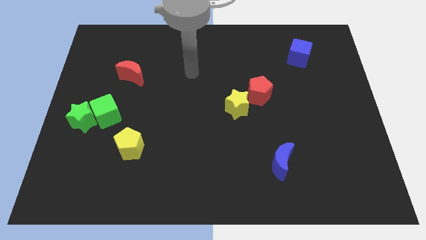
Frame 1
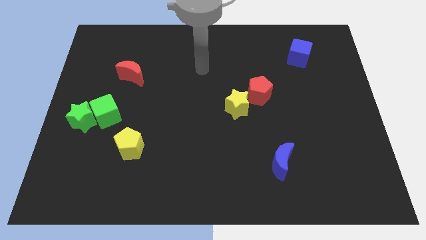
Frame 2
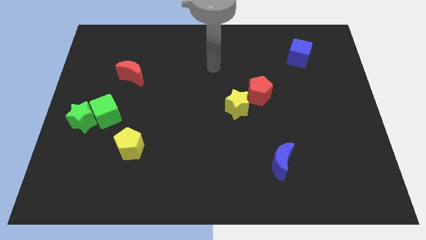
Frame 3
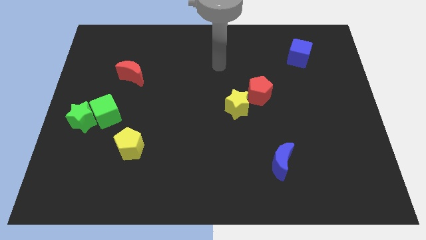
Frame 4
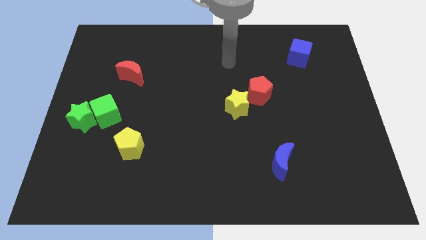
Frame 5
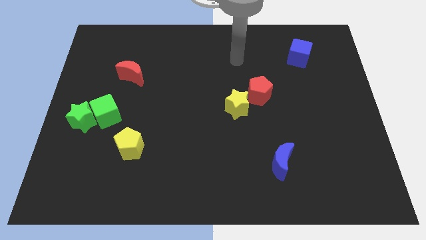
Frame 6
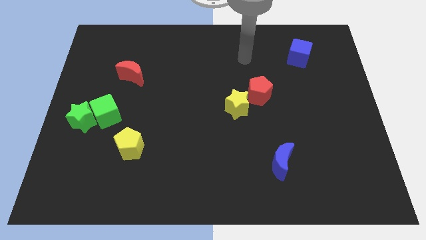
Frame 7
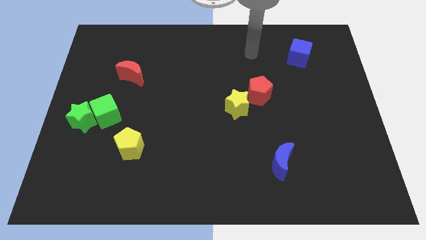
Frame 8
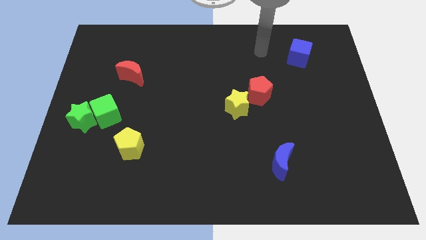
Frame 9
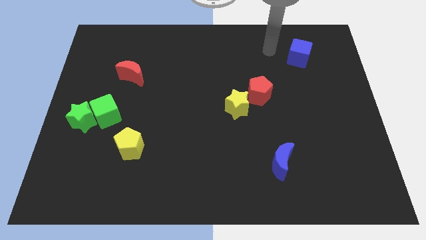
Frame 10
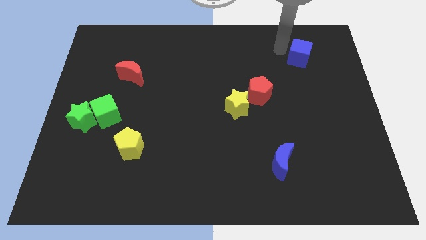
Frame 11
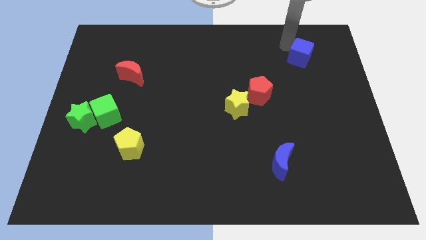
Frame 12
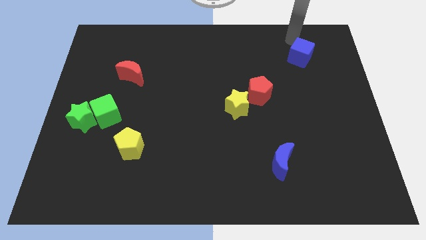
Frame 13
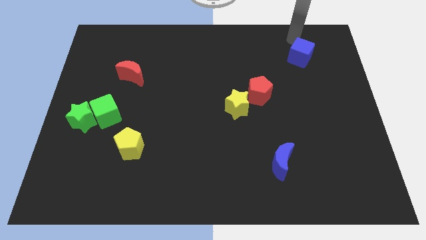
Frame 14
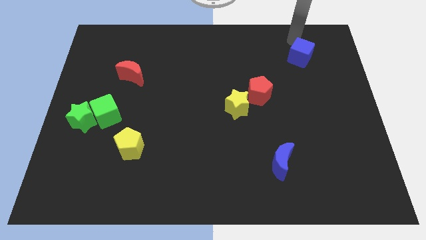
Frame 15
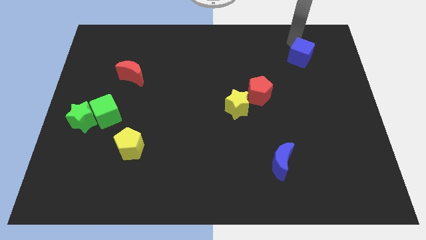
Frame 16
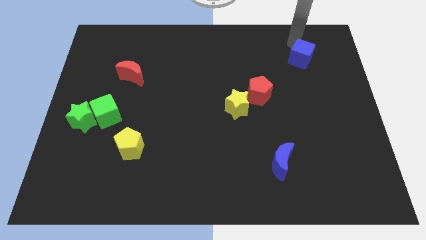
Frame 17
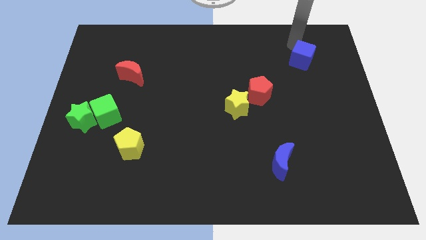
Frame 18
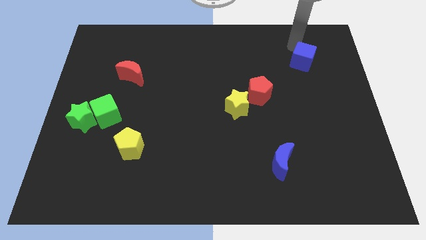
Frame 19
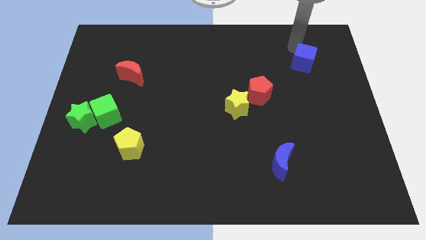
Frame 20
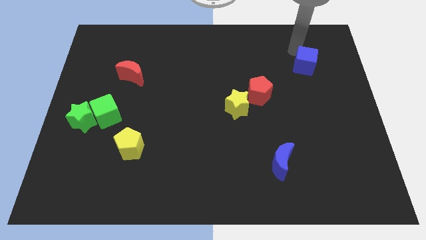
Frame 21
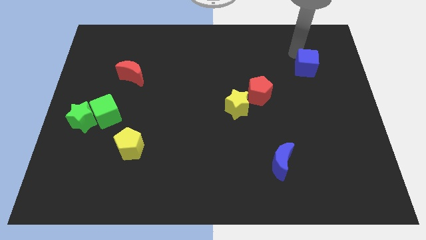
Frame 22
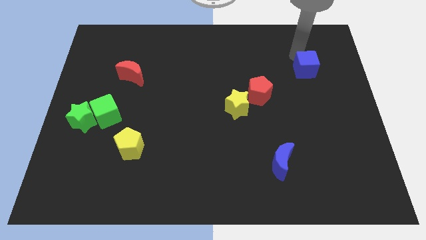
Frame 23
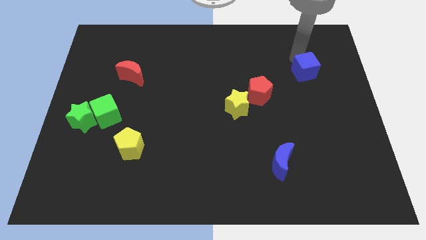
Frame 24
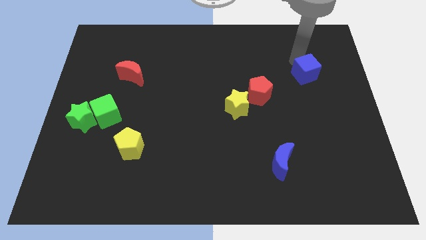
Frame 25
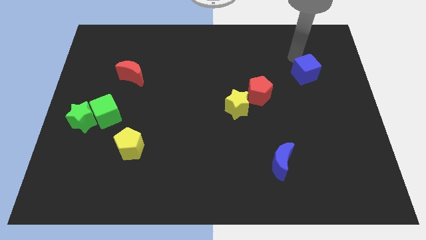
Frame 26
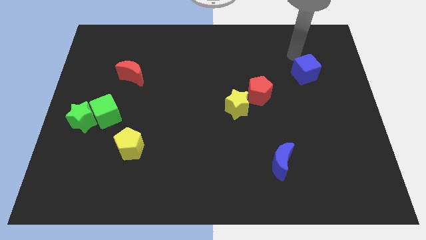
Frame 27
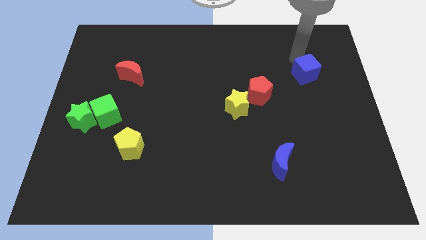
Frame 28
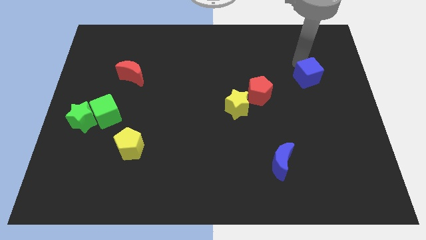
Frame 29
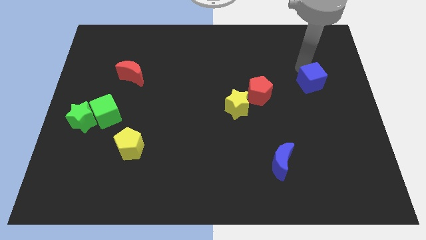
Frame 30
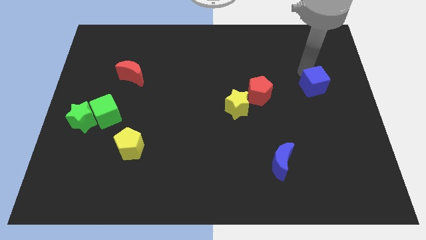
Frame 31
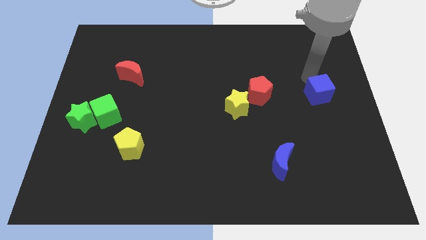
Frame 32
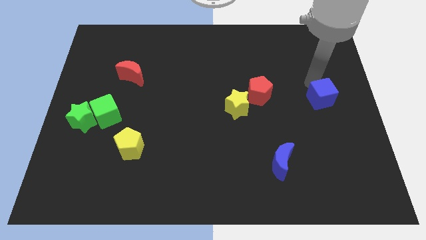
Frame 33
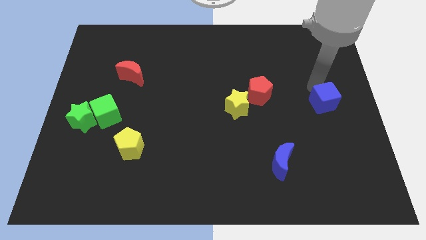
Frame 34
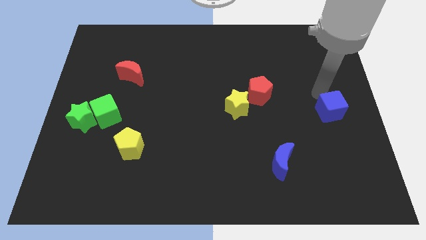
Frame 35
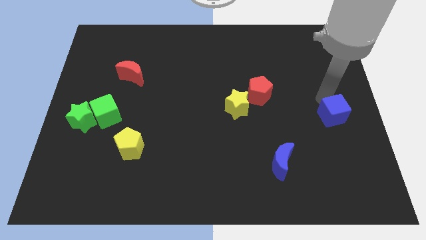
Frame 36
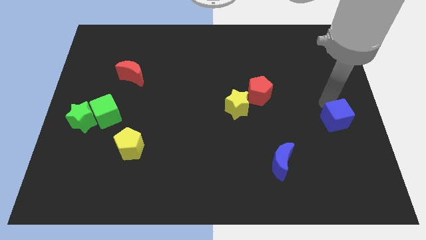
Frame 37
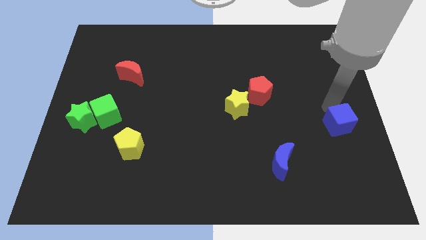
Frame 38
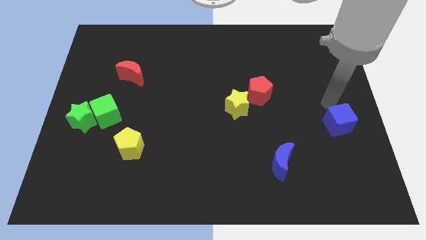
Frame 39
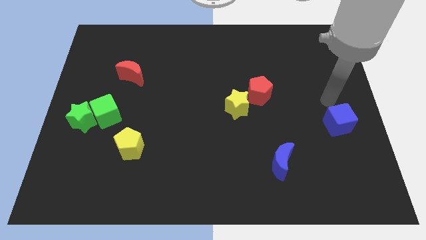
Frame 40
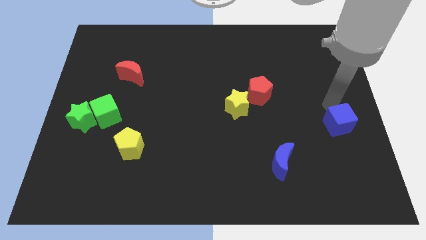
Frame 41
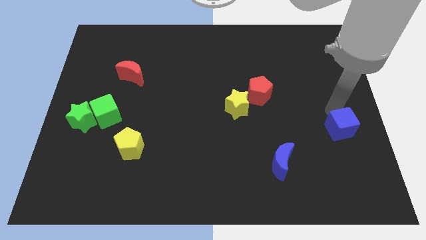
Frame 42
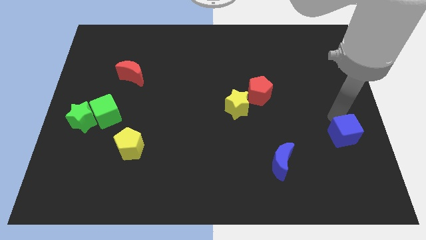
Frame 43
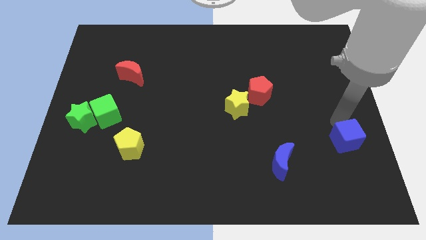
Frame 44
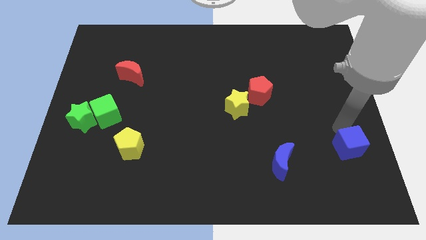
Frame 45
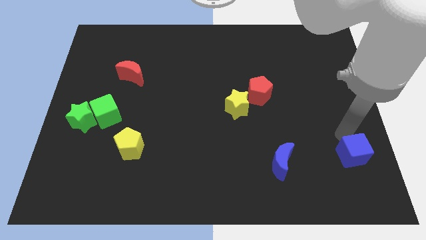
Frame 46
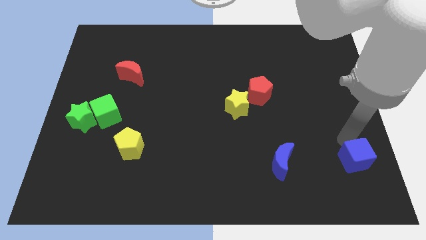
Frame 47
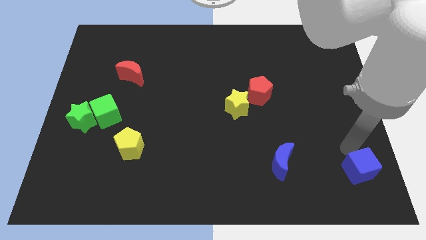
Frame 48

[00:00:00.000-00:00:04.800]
slide the blue cube to the bottom right

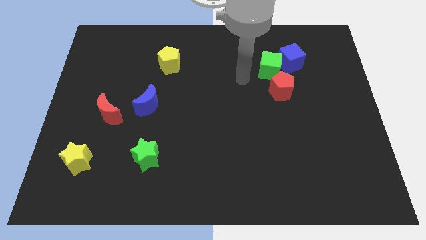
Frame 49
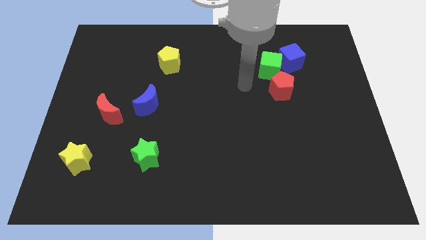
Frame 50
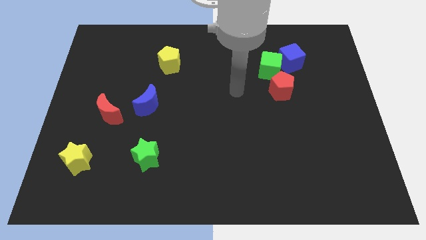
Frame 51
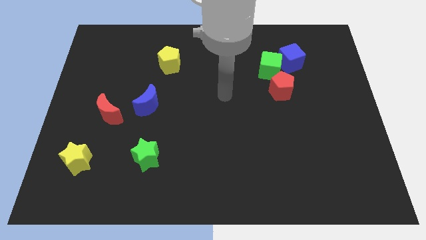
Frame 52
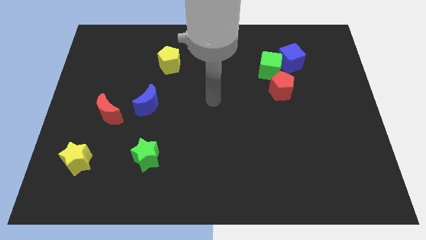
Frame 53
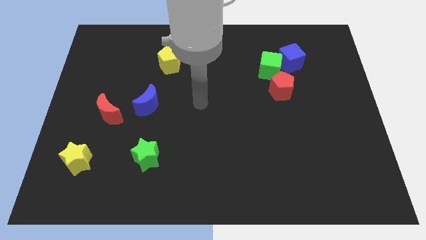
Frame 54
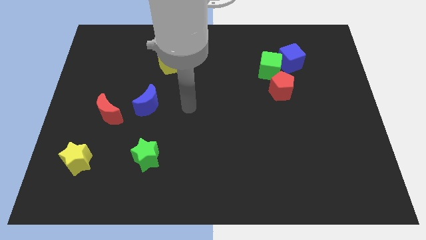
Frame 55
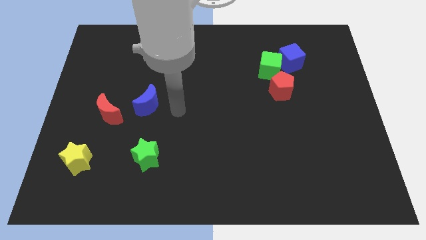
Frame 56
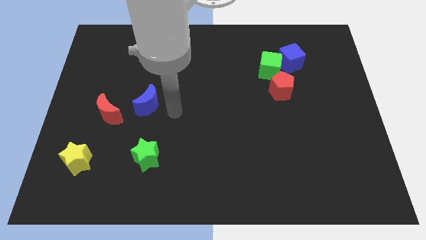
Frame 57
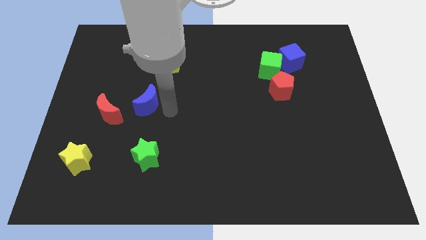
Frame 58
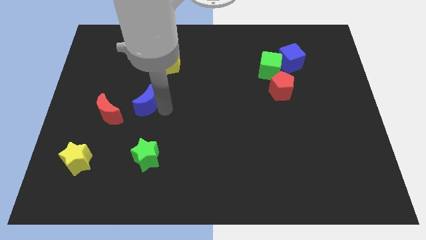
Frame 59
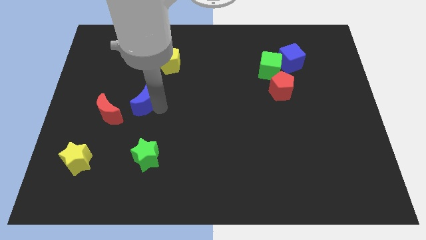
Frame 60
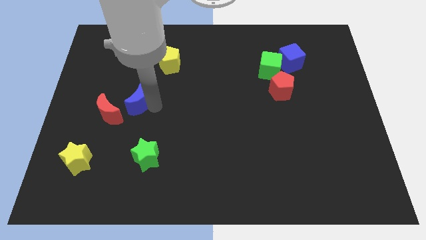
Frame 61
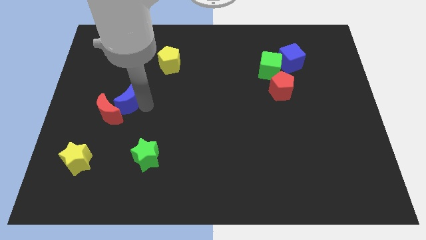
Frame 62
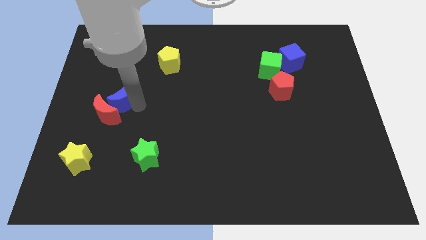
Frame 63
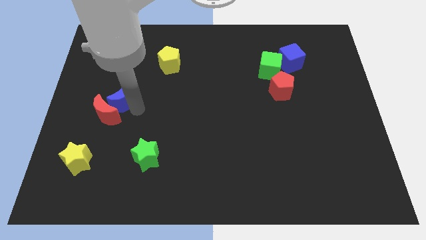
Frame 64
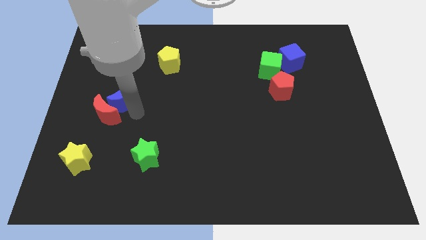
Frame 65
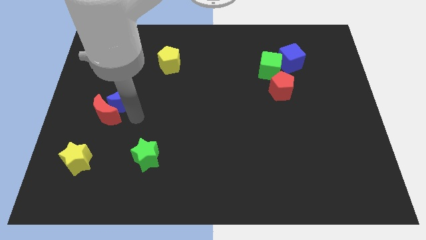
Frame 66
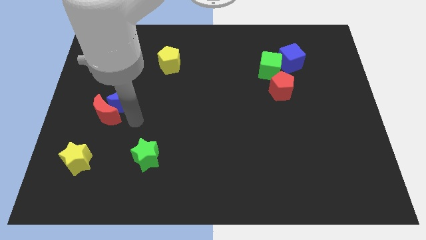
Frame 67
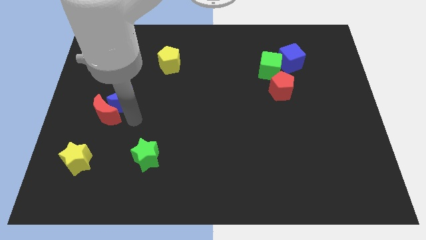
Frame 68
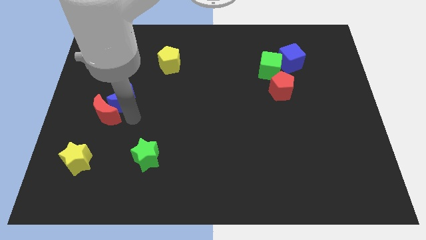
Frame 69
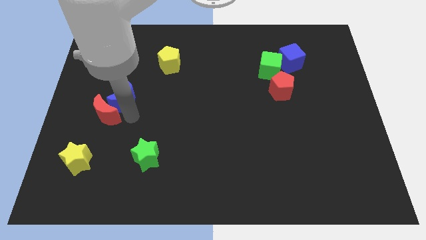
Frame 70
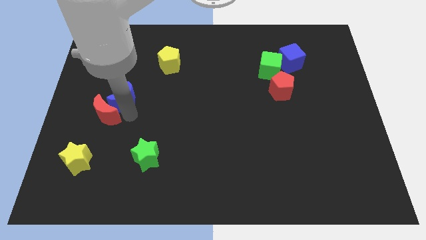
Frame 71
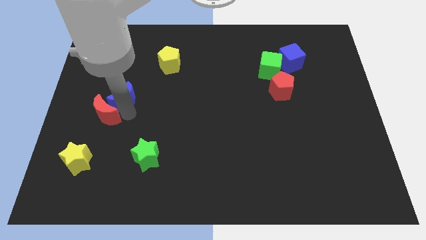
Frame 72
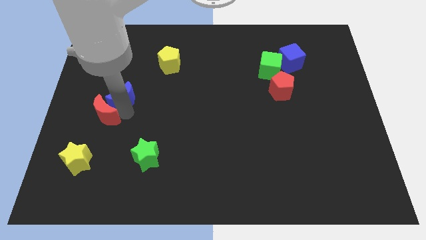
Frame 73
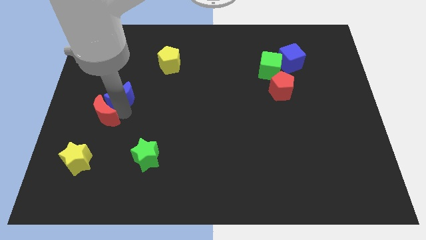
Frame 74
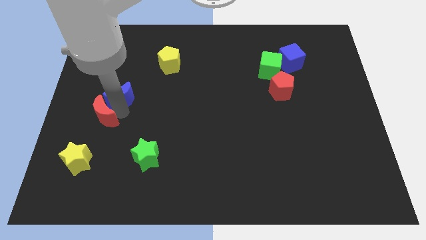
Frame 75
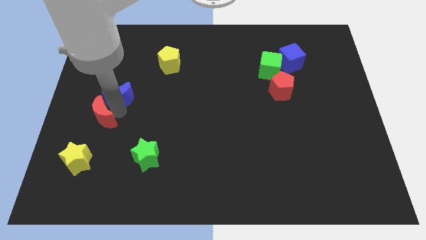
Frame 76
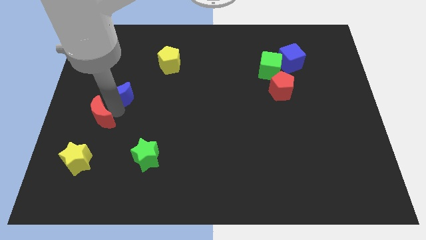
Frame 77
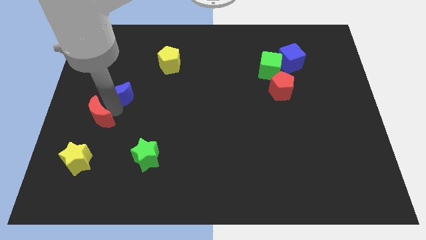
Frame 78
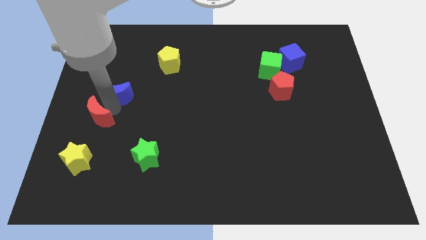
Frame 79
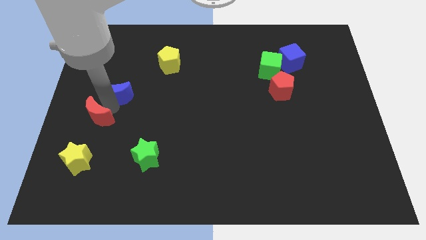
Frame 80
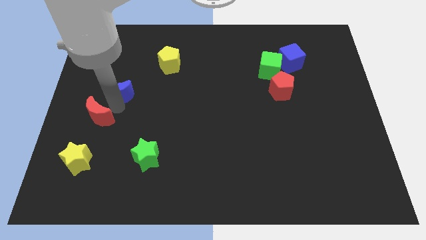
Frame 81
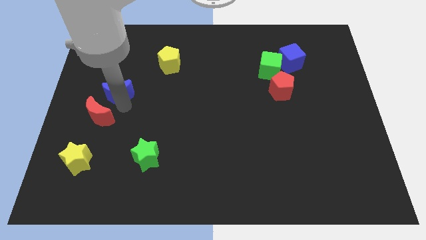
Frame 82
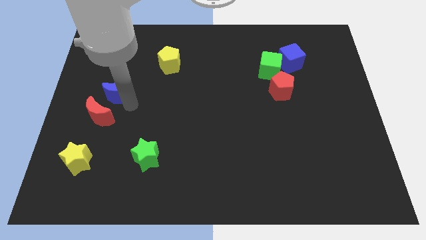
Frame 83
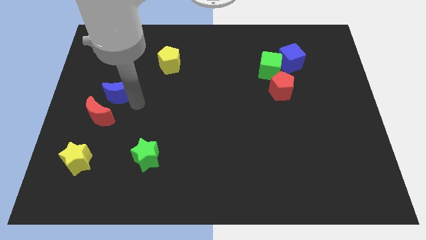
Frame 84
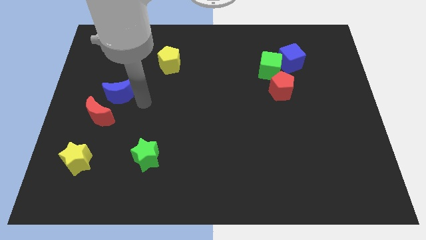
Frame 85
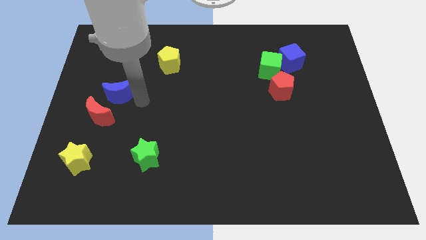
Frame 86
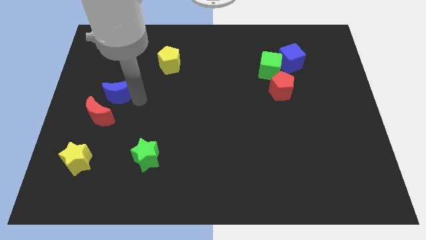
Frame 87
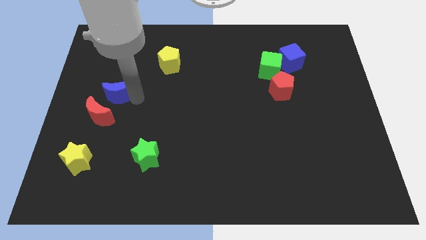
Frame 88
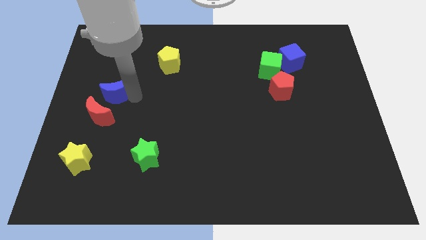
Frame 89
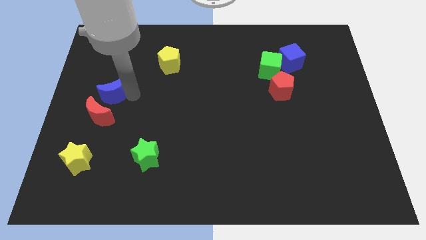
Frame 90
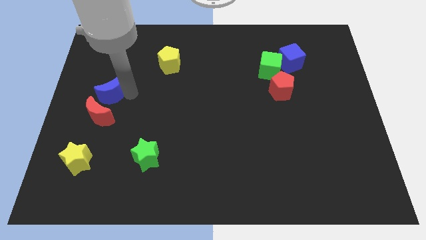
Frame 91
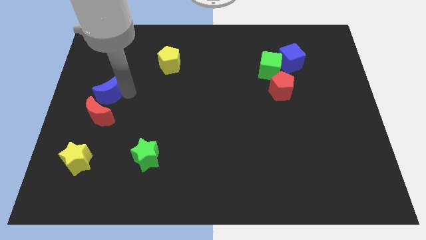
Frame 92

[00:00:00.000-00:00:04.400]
put the blue moon to the left side
